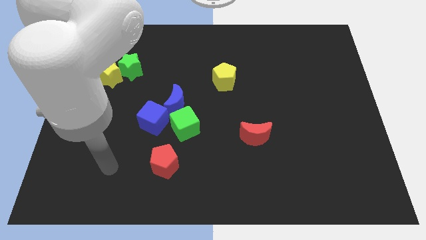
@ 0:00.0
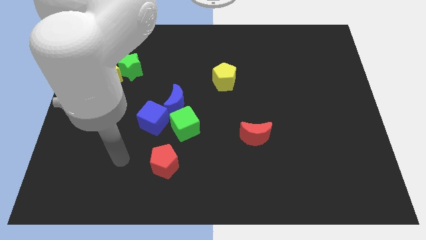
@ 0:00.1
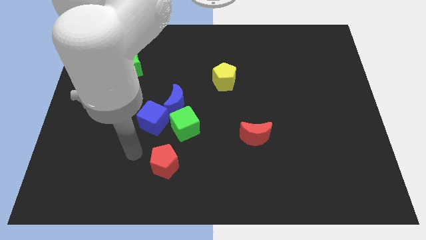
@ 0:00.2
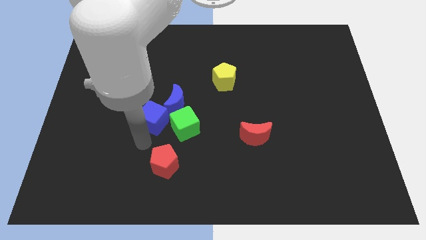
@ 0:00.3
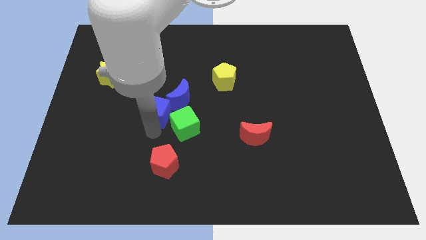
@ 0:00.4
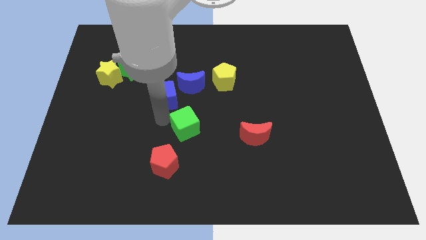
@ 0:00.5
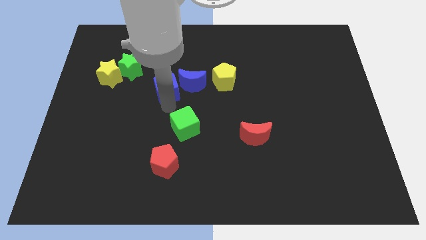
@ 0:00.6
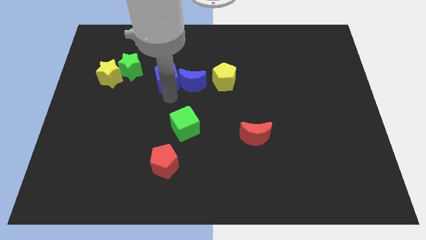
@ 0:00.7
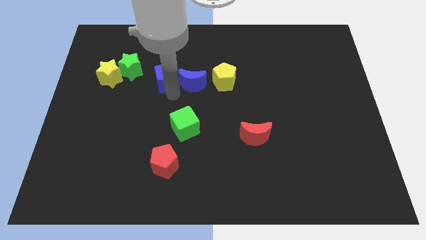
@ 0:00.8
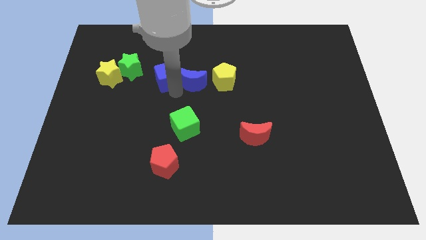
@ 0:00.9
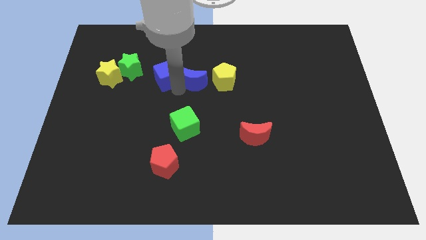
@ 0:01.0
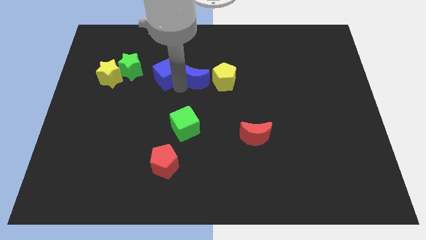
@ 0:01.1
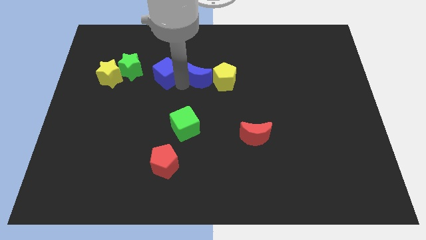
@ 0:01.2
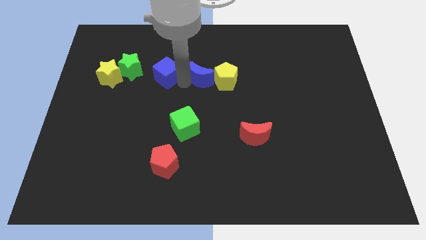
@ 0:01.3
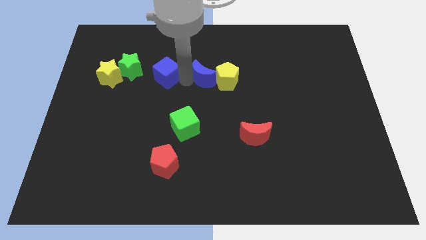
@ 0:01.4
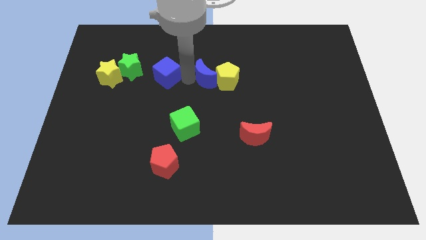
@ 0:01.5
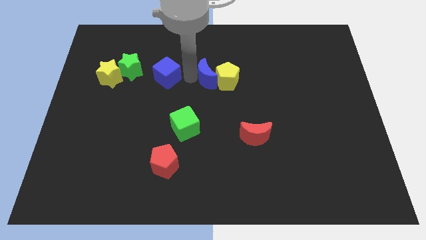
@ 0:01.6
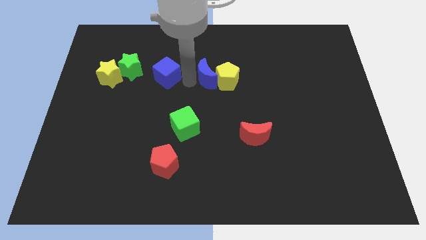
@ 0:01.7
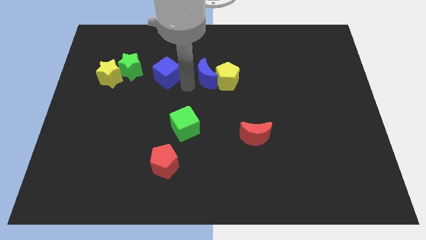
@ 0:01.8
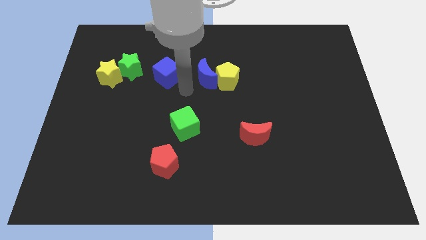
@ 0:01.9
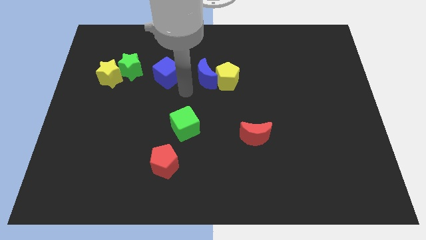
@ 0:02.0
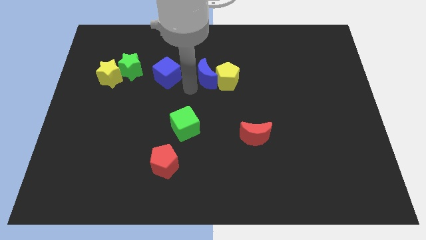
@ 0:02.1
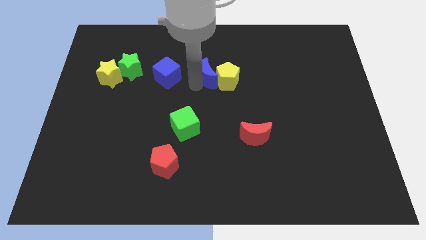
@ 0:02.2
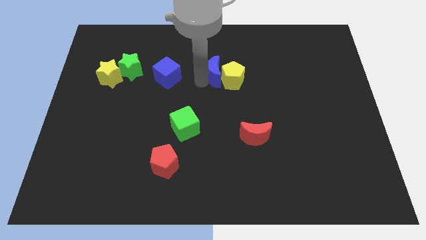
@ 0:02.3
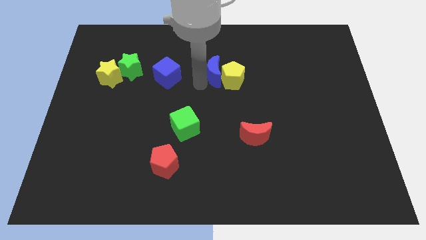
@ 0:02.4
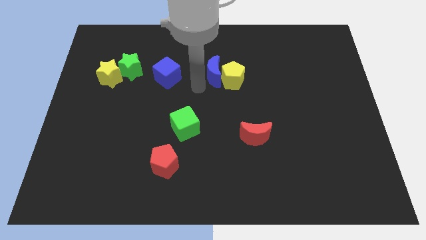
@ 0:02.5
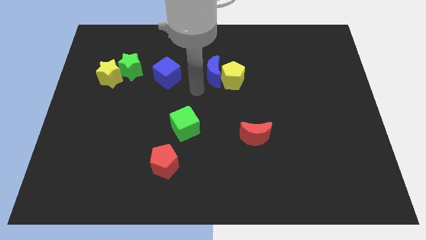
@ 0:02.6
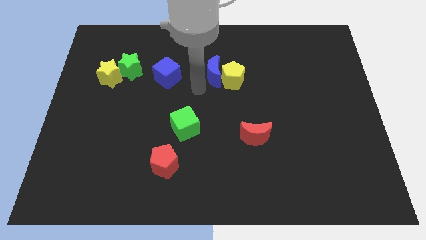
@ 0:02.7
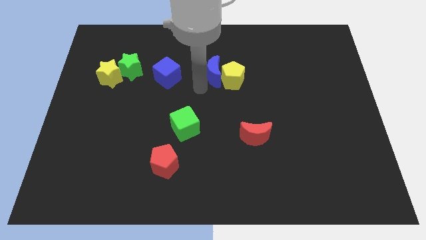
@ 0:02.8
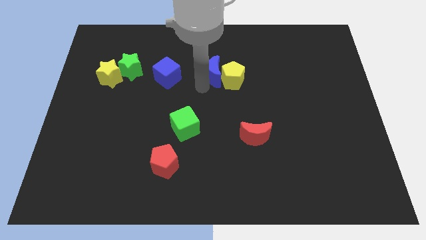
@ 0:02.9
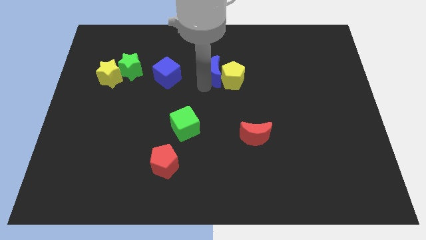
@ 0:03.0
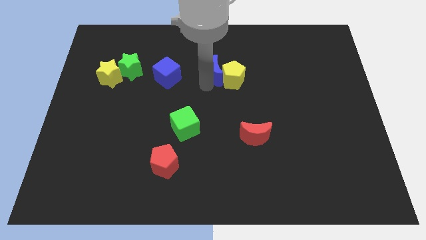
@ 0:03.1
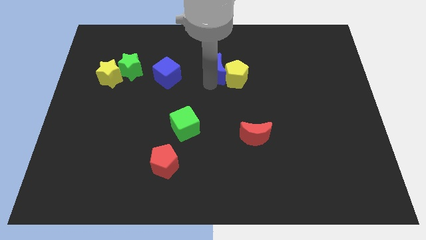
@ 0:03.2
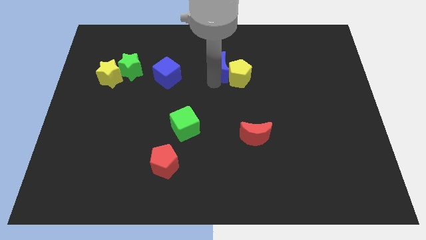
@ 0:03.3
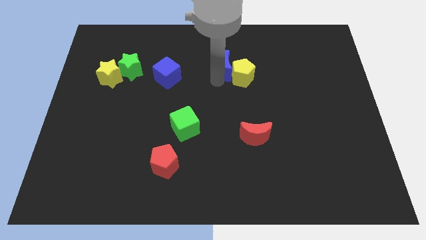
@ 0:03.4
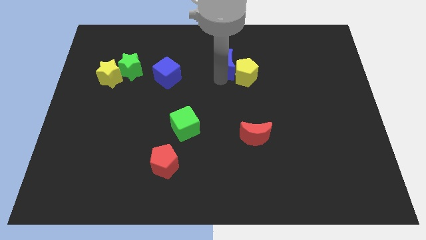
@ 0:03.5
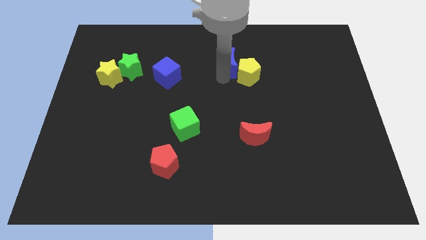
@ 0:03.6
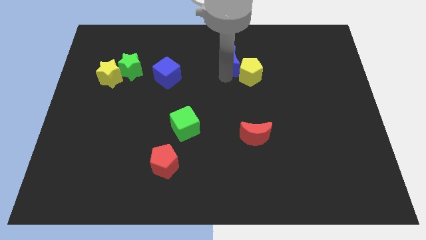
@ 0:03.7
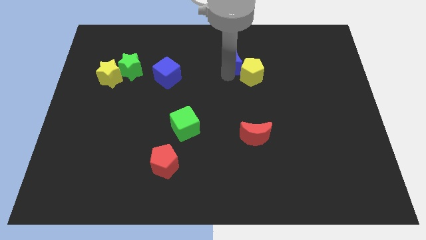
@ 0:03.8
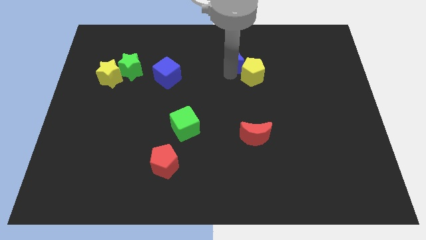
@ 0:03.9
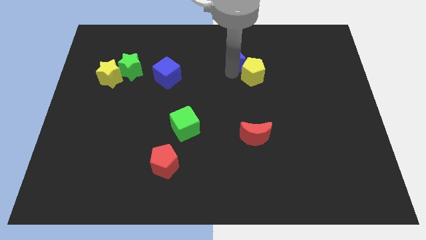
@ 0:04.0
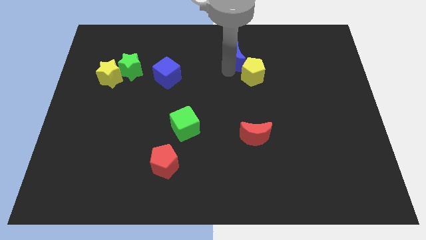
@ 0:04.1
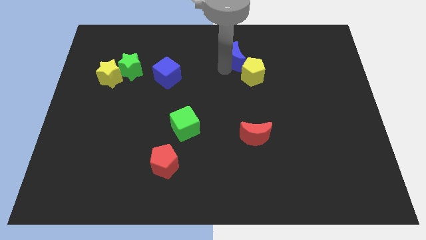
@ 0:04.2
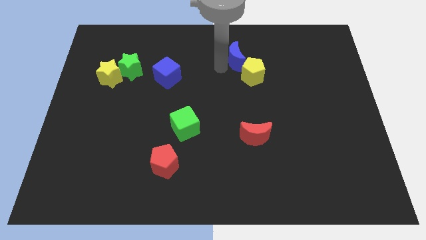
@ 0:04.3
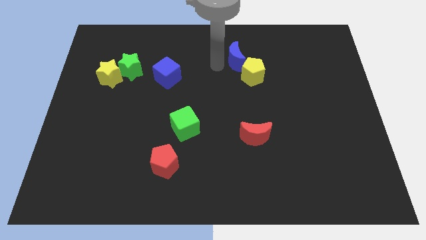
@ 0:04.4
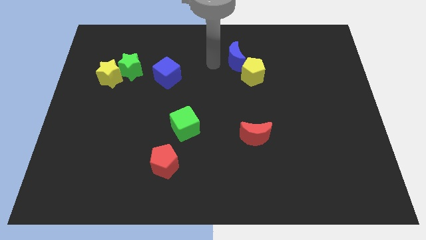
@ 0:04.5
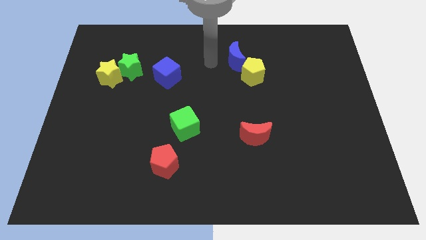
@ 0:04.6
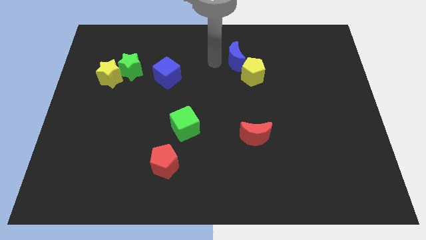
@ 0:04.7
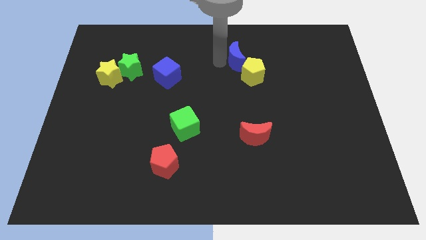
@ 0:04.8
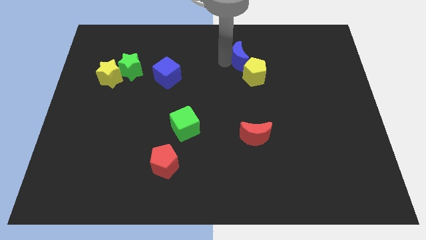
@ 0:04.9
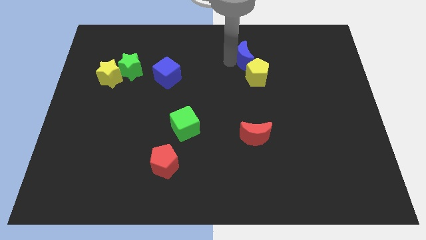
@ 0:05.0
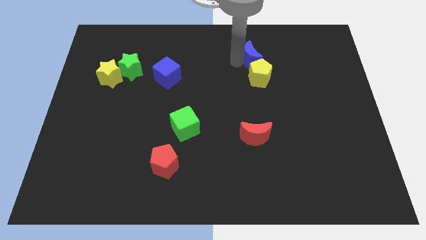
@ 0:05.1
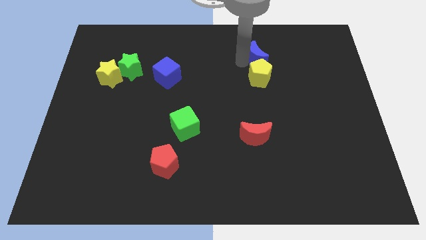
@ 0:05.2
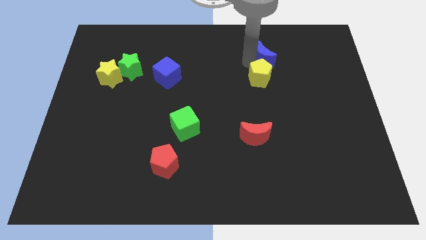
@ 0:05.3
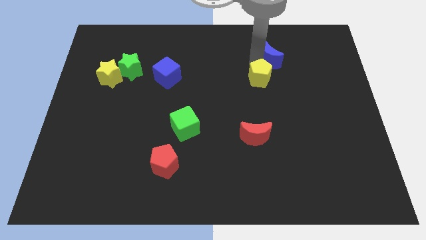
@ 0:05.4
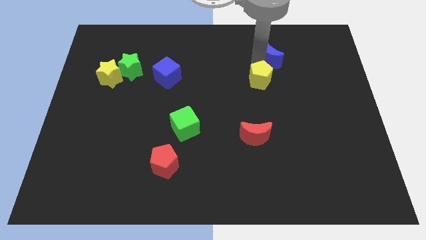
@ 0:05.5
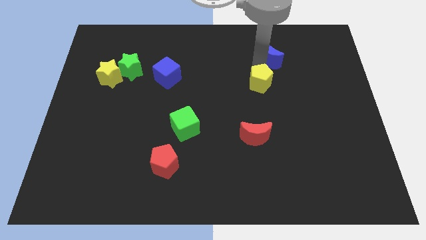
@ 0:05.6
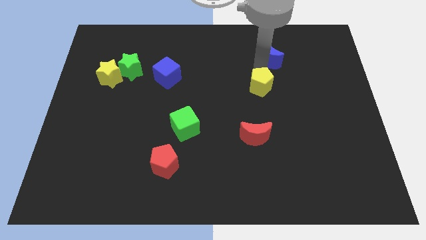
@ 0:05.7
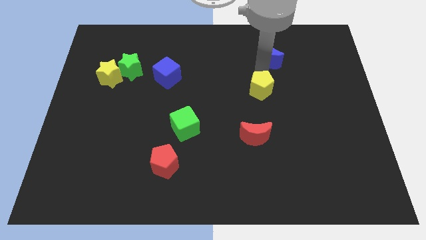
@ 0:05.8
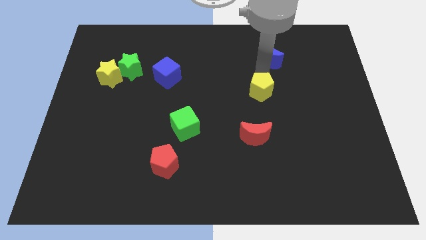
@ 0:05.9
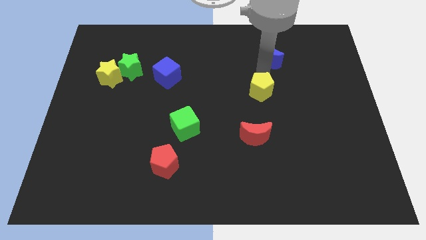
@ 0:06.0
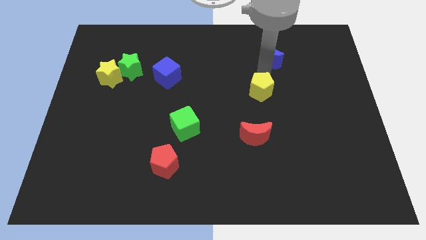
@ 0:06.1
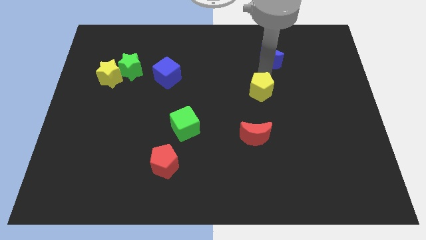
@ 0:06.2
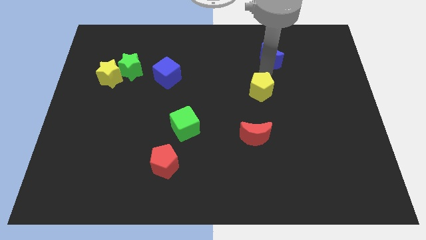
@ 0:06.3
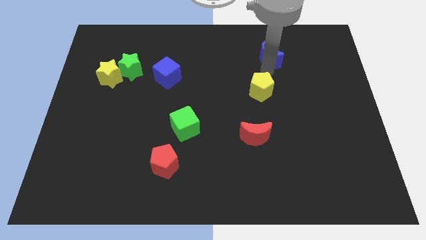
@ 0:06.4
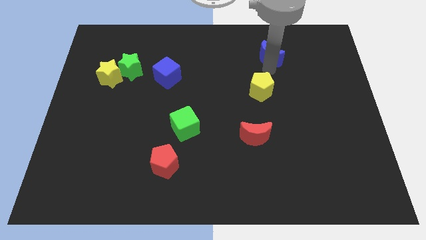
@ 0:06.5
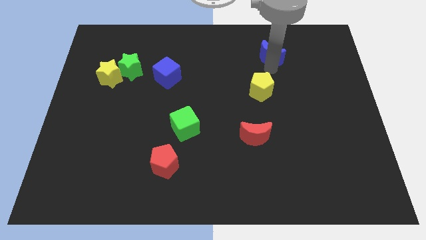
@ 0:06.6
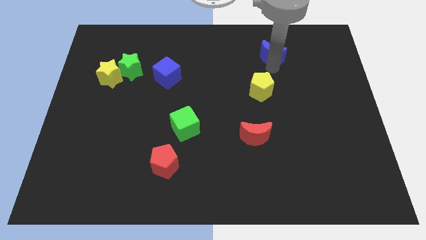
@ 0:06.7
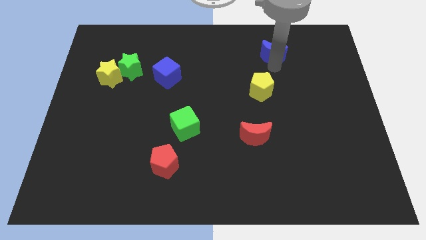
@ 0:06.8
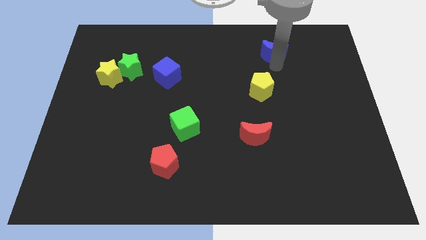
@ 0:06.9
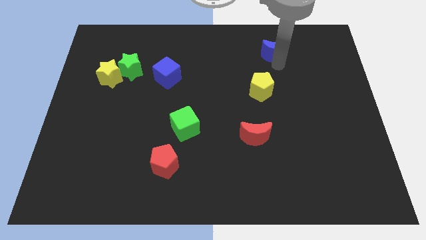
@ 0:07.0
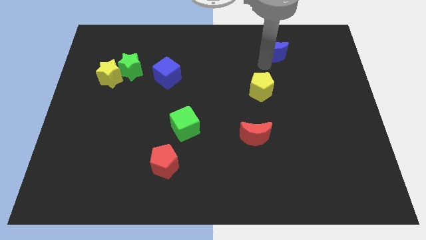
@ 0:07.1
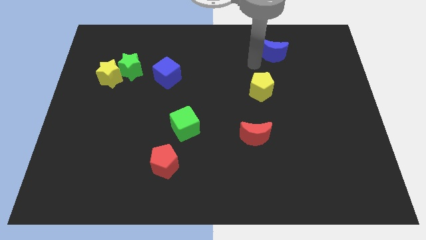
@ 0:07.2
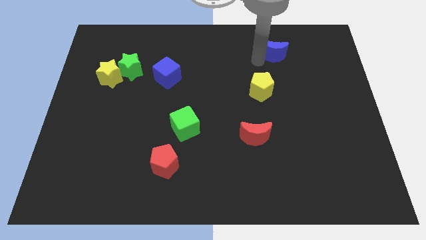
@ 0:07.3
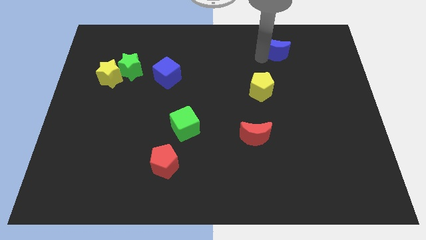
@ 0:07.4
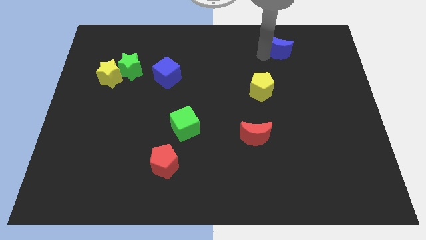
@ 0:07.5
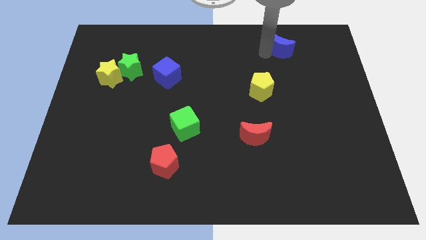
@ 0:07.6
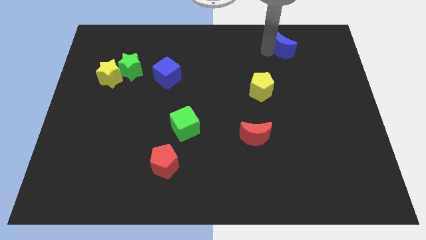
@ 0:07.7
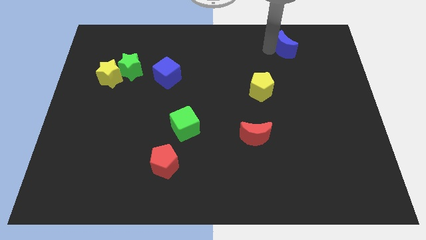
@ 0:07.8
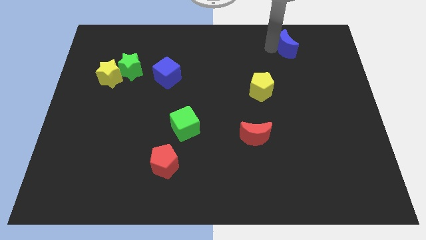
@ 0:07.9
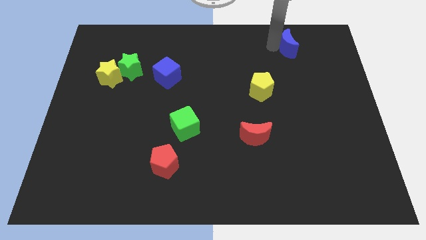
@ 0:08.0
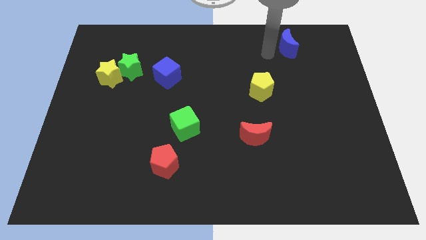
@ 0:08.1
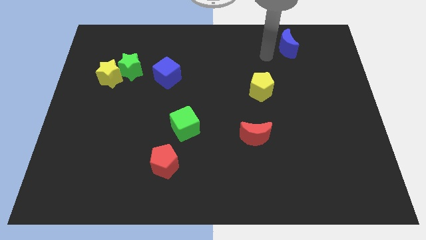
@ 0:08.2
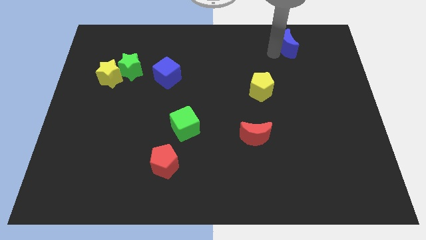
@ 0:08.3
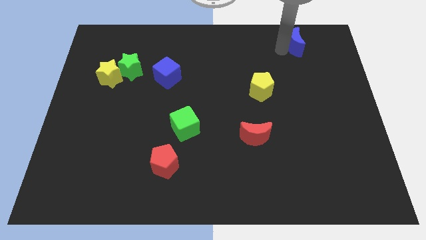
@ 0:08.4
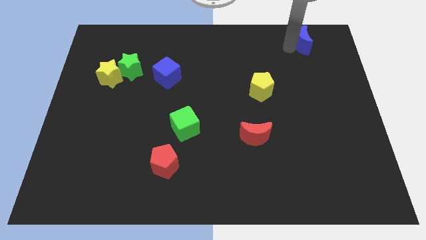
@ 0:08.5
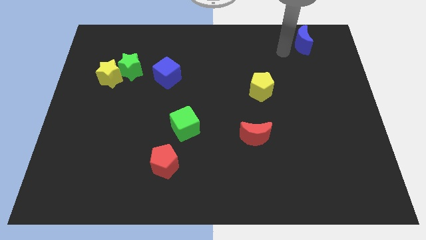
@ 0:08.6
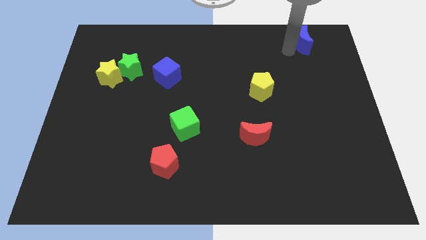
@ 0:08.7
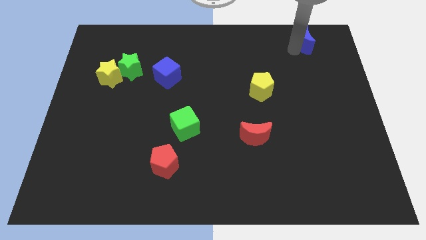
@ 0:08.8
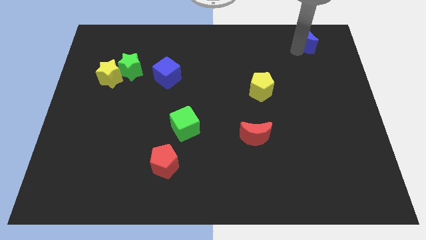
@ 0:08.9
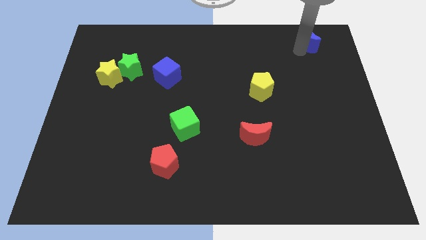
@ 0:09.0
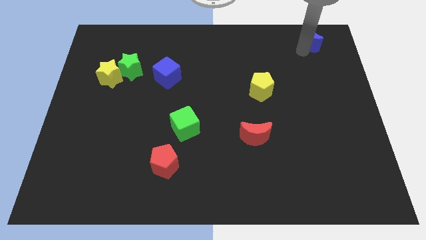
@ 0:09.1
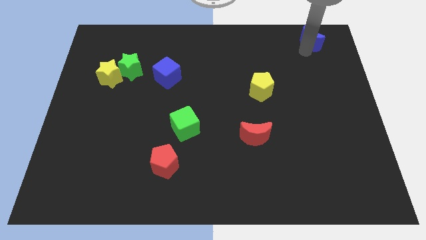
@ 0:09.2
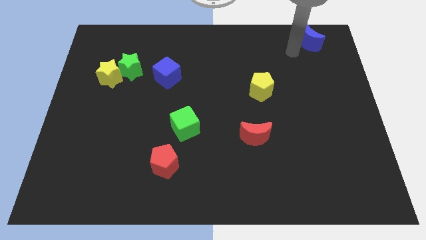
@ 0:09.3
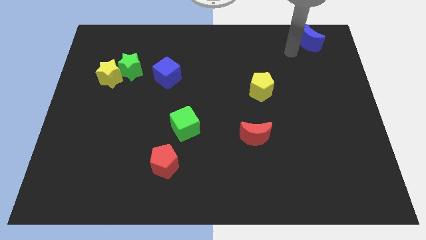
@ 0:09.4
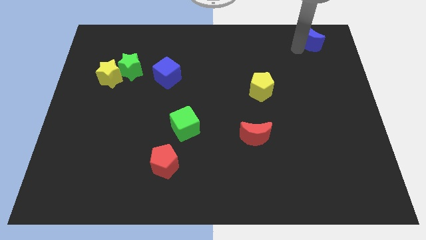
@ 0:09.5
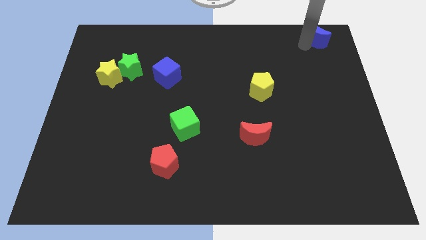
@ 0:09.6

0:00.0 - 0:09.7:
push the blue moon to the top right
